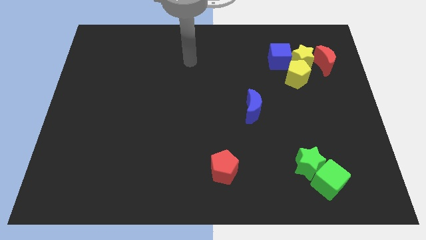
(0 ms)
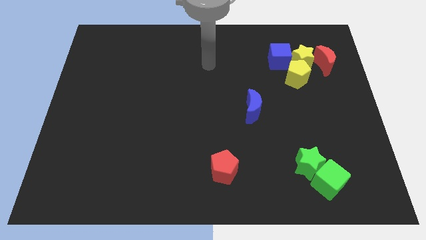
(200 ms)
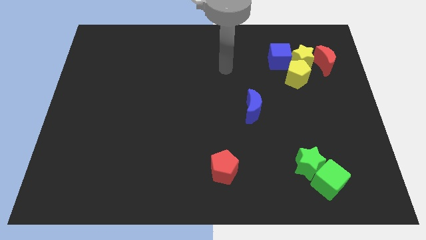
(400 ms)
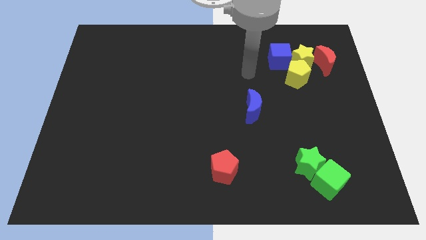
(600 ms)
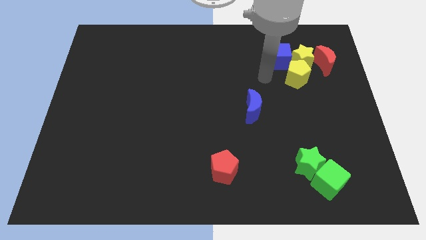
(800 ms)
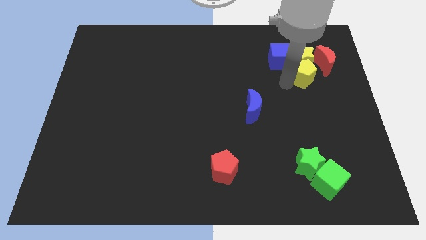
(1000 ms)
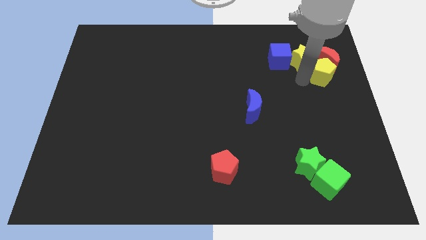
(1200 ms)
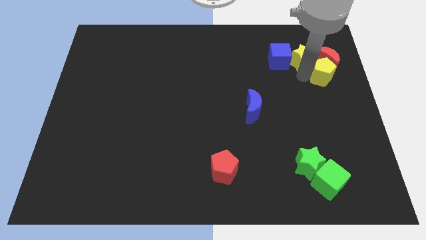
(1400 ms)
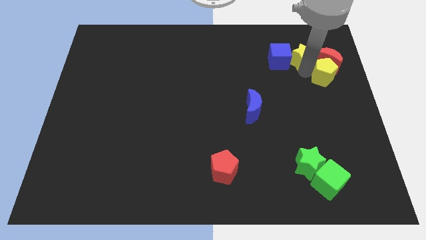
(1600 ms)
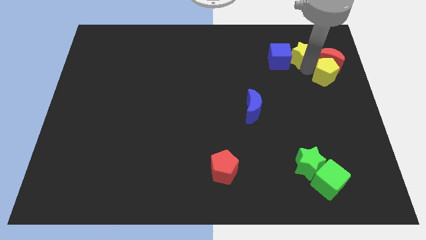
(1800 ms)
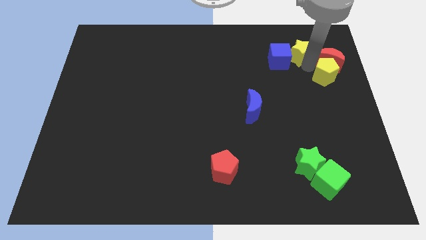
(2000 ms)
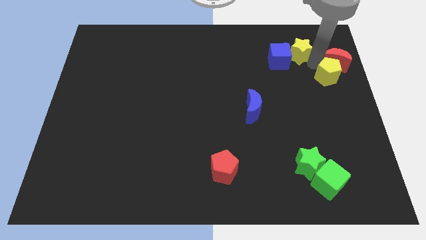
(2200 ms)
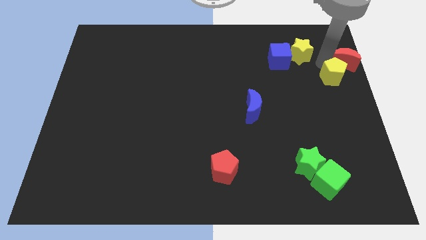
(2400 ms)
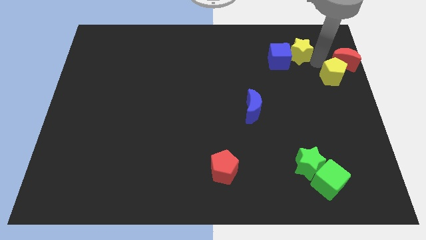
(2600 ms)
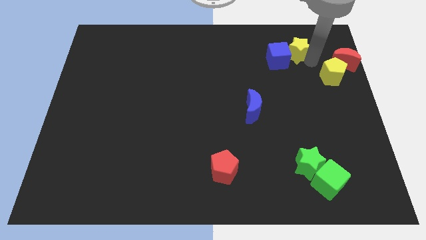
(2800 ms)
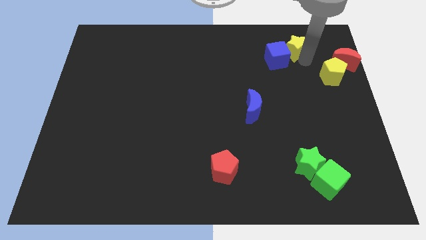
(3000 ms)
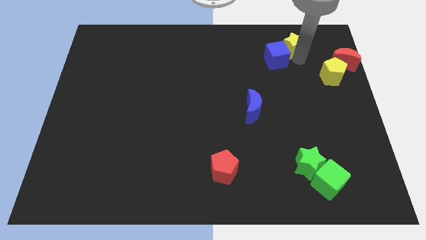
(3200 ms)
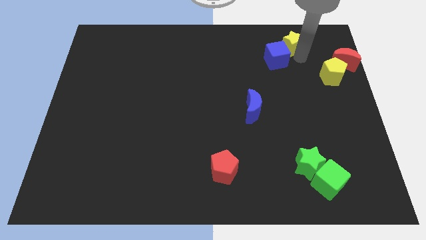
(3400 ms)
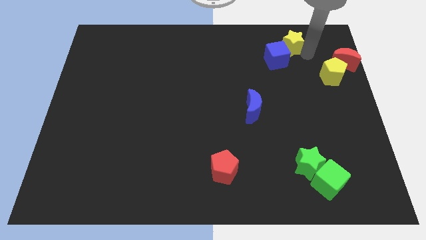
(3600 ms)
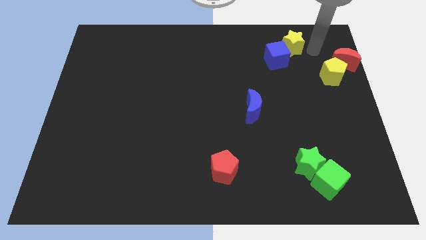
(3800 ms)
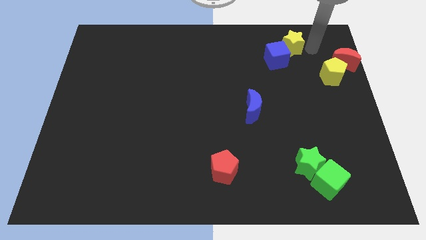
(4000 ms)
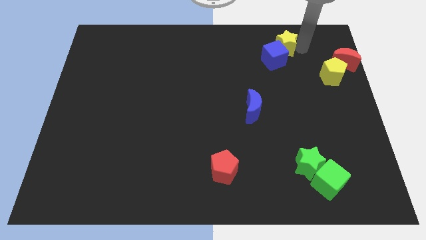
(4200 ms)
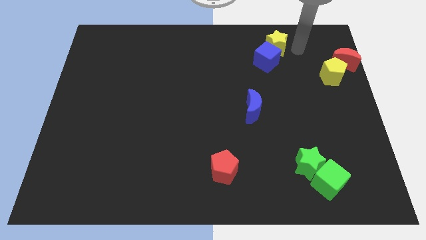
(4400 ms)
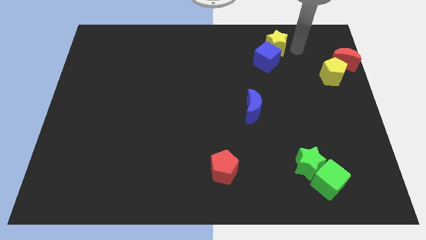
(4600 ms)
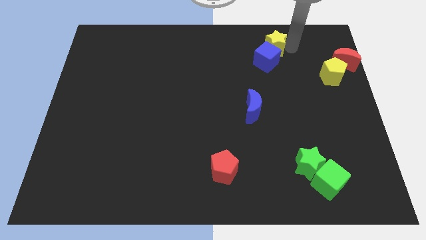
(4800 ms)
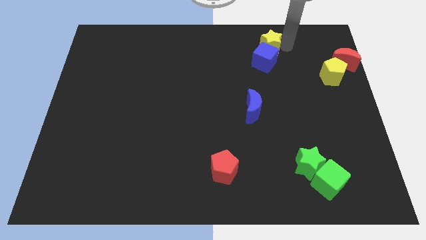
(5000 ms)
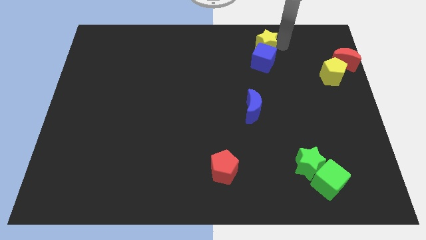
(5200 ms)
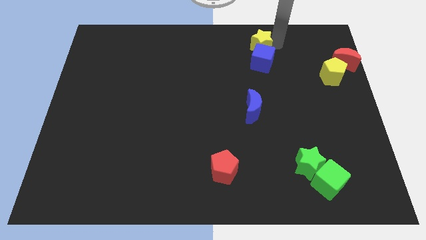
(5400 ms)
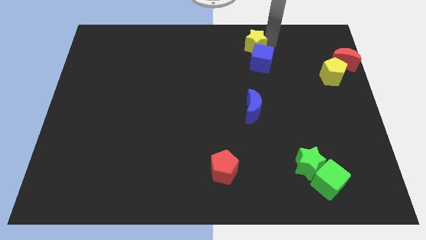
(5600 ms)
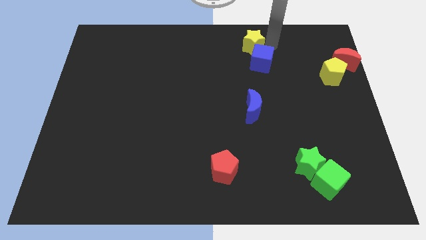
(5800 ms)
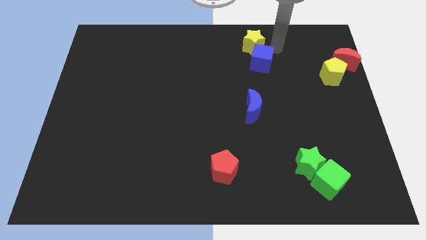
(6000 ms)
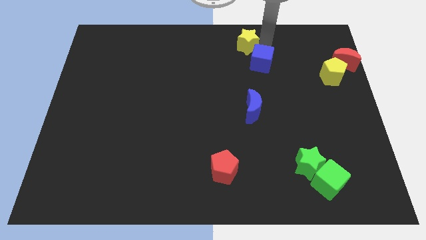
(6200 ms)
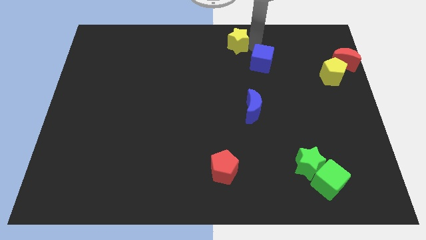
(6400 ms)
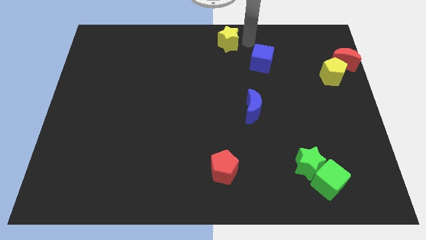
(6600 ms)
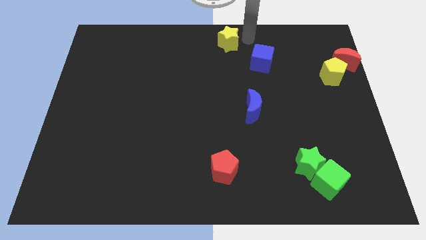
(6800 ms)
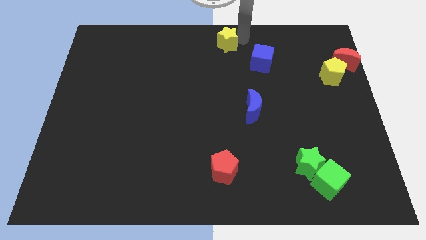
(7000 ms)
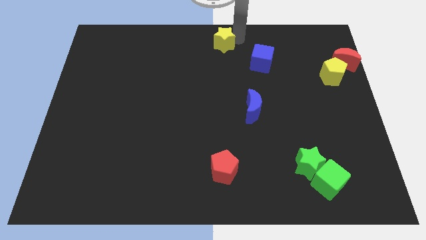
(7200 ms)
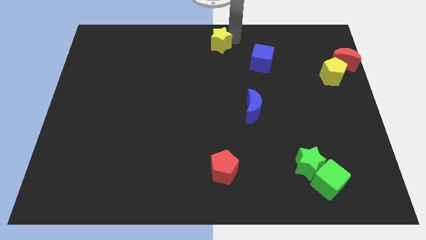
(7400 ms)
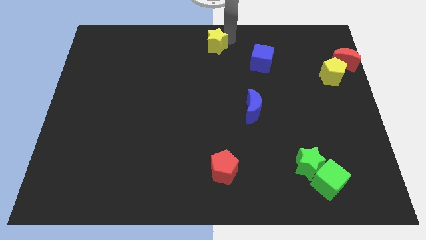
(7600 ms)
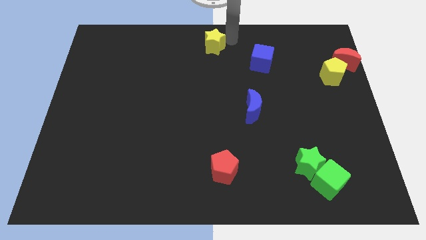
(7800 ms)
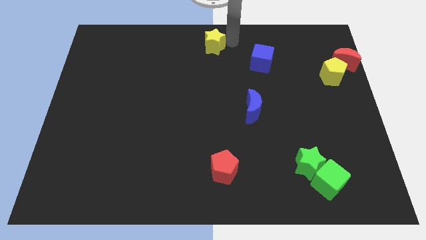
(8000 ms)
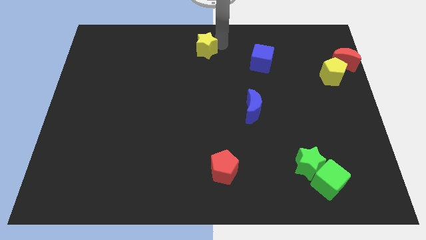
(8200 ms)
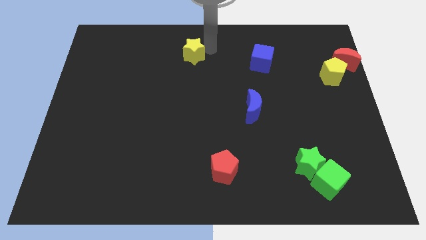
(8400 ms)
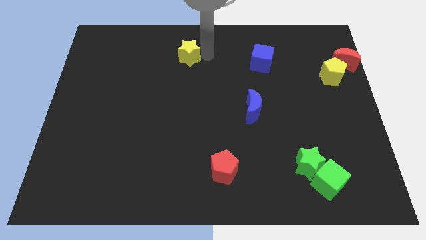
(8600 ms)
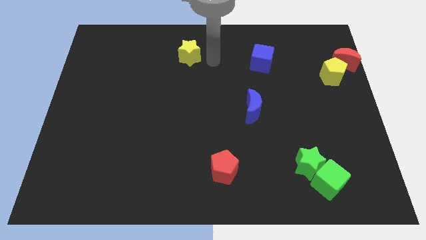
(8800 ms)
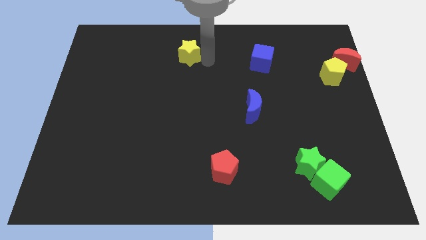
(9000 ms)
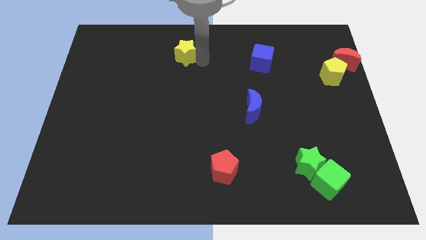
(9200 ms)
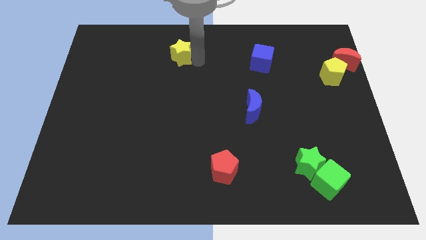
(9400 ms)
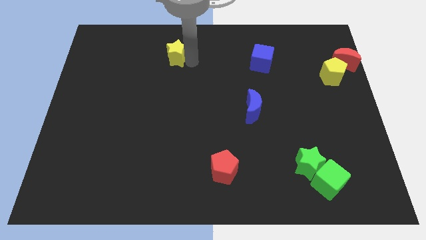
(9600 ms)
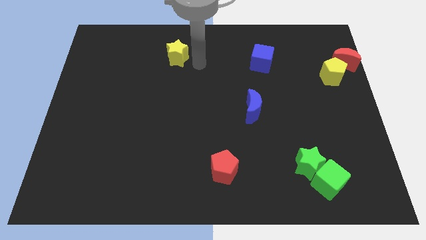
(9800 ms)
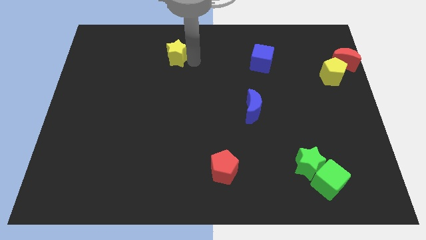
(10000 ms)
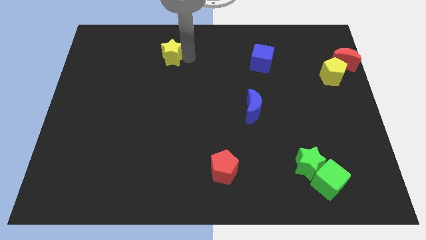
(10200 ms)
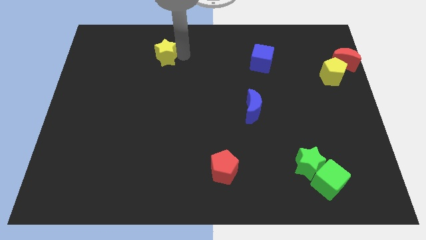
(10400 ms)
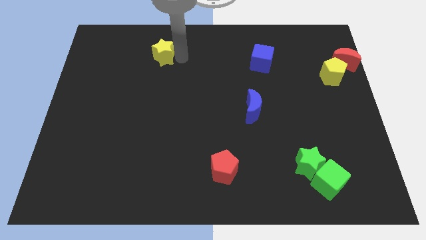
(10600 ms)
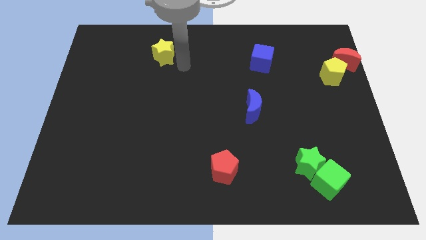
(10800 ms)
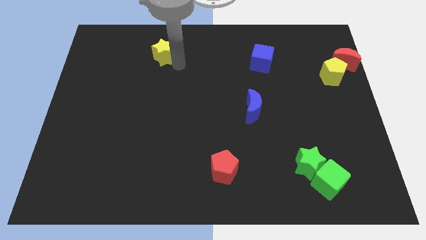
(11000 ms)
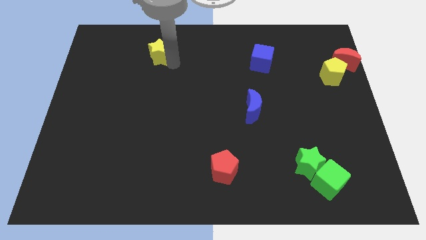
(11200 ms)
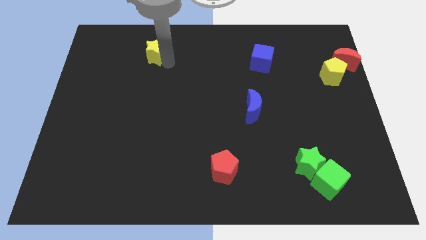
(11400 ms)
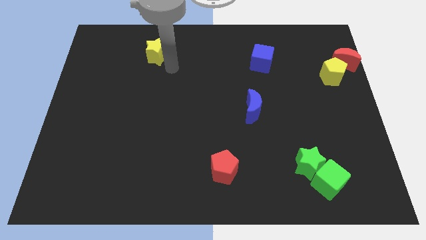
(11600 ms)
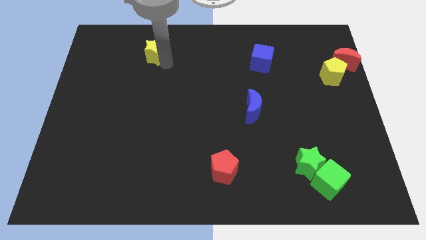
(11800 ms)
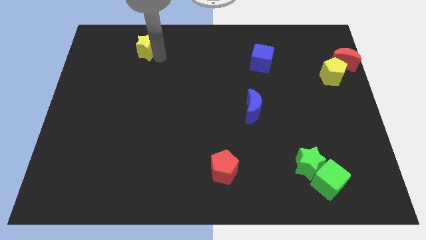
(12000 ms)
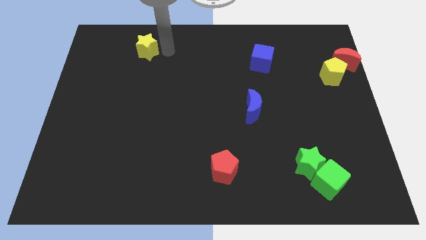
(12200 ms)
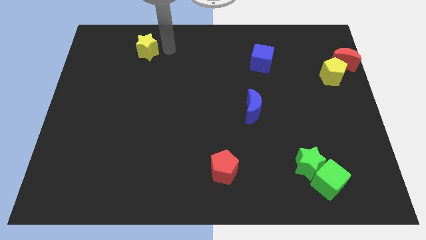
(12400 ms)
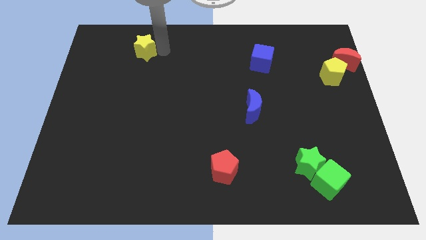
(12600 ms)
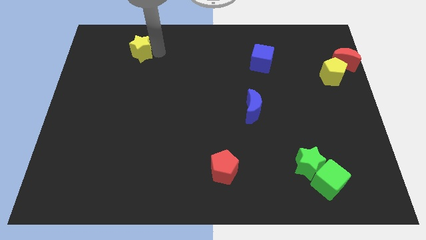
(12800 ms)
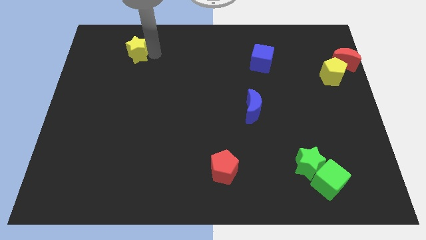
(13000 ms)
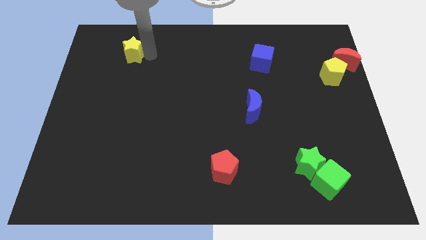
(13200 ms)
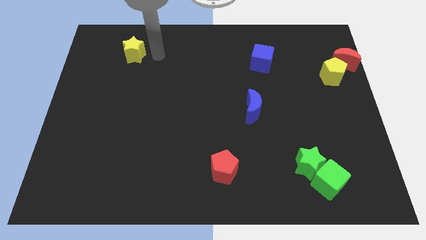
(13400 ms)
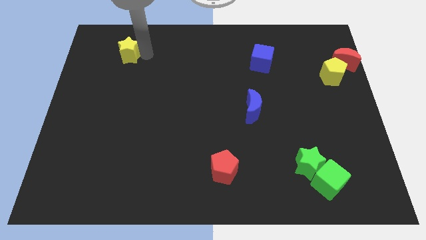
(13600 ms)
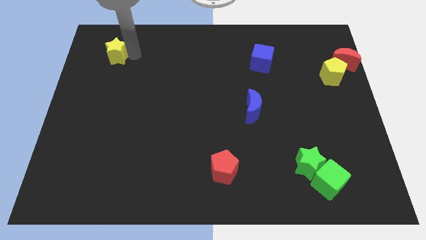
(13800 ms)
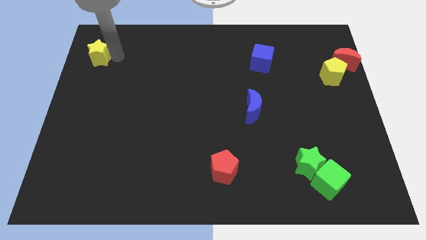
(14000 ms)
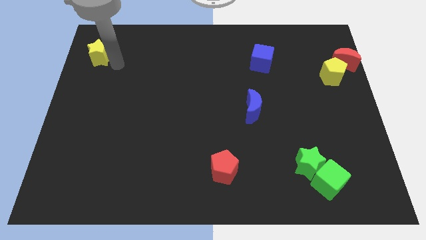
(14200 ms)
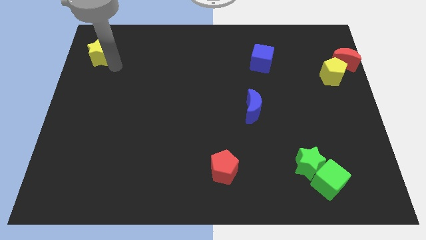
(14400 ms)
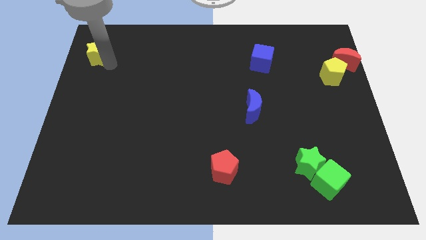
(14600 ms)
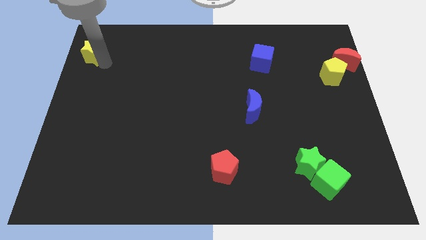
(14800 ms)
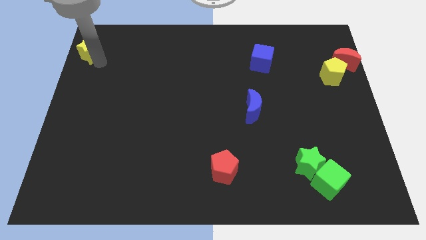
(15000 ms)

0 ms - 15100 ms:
move the yellow star to the top left
